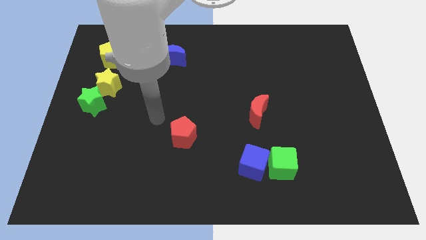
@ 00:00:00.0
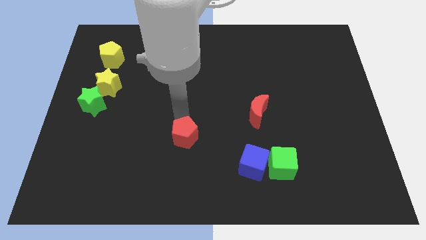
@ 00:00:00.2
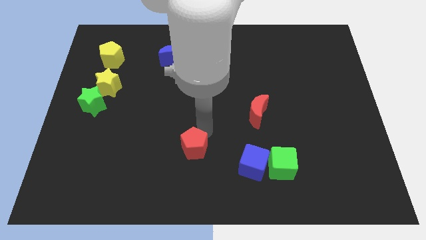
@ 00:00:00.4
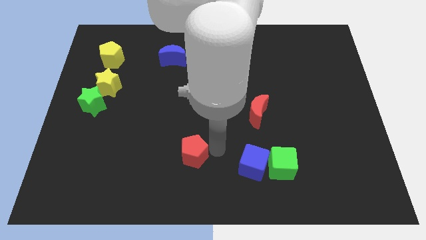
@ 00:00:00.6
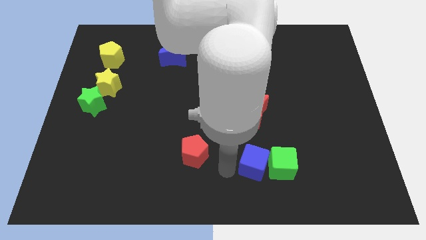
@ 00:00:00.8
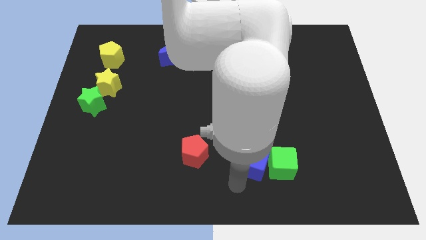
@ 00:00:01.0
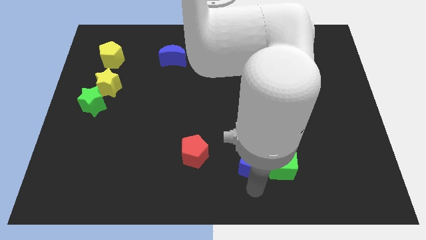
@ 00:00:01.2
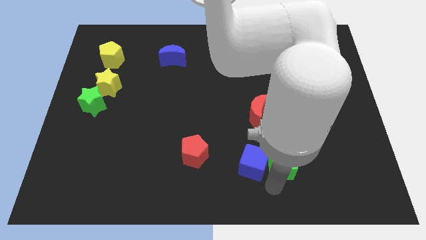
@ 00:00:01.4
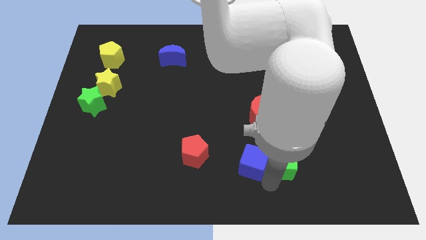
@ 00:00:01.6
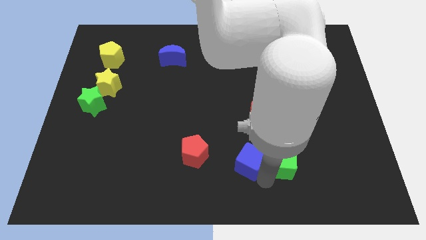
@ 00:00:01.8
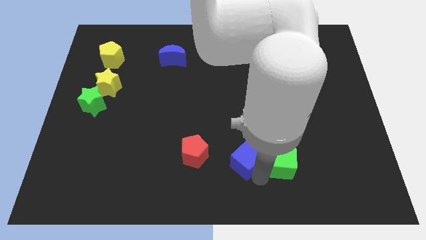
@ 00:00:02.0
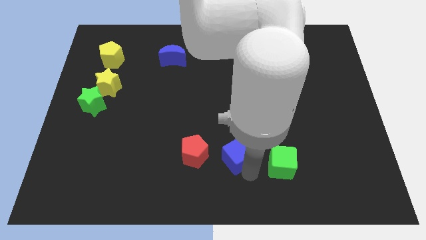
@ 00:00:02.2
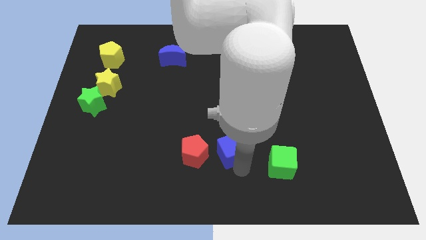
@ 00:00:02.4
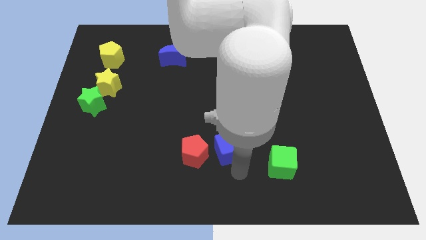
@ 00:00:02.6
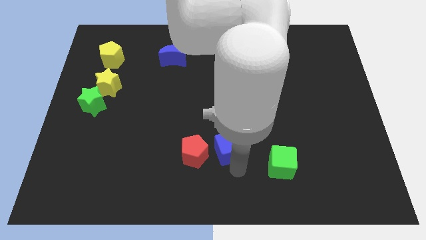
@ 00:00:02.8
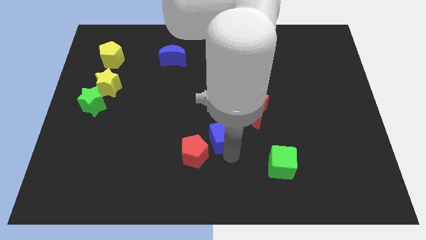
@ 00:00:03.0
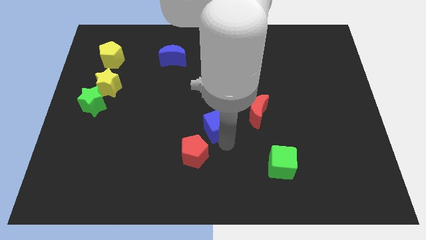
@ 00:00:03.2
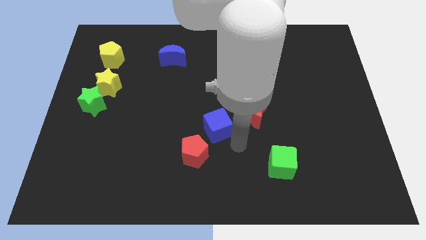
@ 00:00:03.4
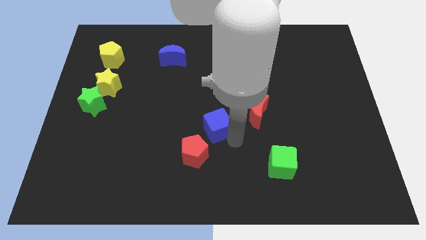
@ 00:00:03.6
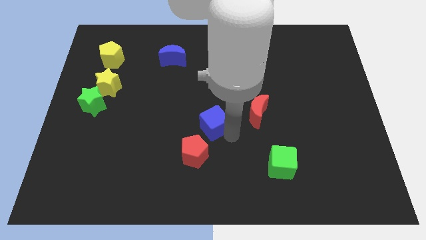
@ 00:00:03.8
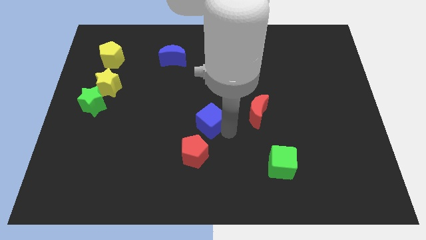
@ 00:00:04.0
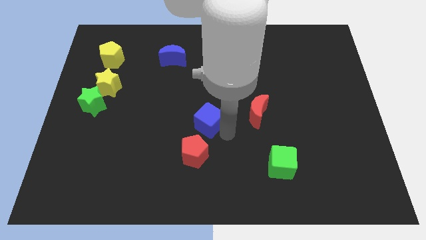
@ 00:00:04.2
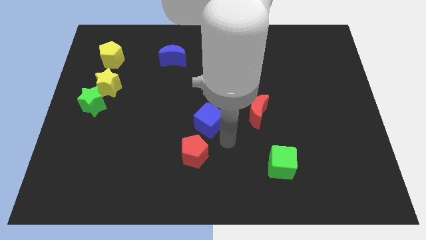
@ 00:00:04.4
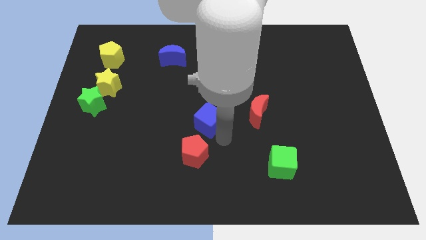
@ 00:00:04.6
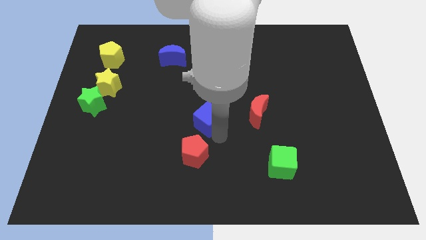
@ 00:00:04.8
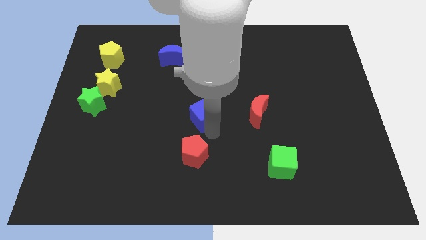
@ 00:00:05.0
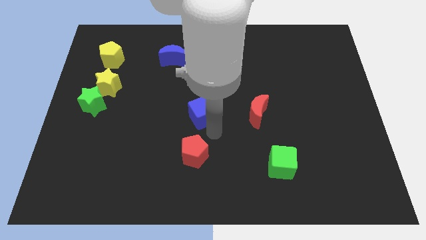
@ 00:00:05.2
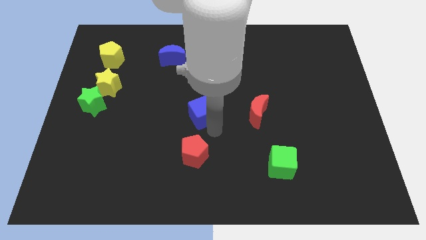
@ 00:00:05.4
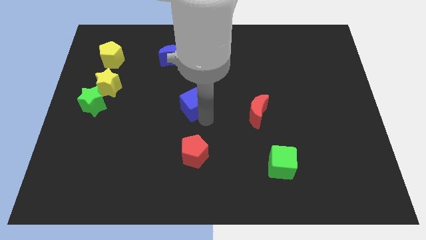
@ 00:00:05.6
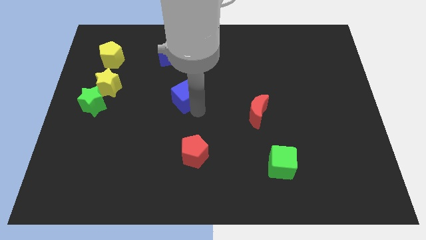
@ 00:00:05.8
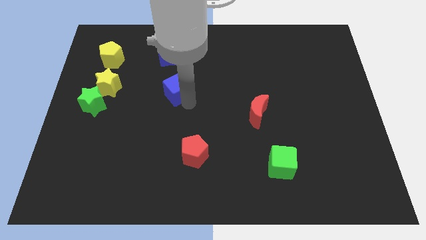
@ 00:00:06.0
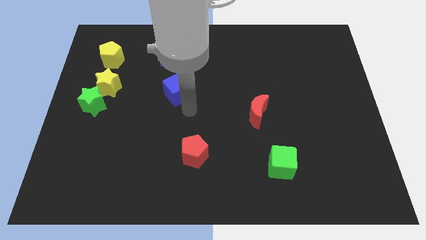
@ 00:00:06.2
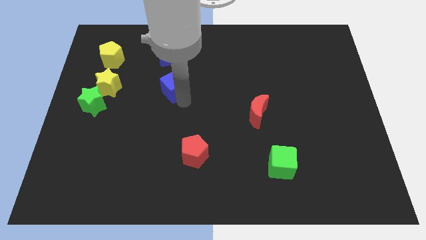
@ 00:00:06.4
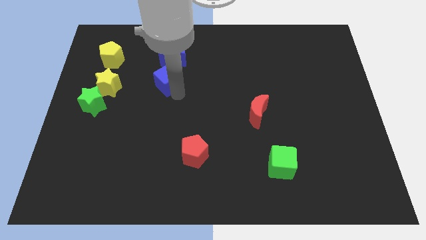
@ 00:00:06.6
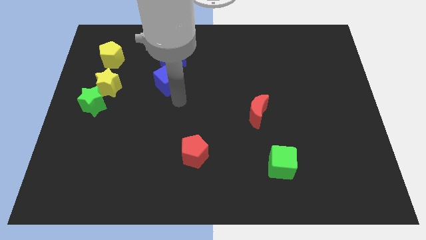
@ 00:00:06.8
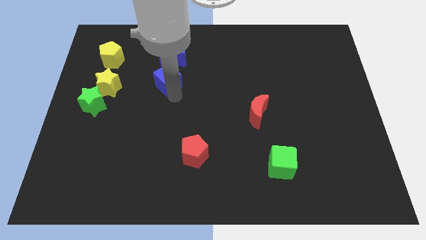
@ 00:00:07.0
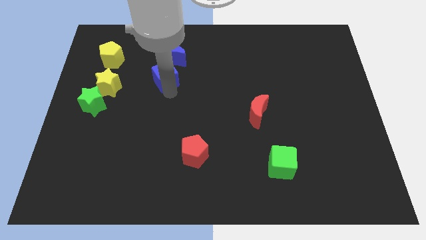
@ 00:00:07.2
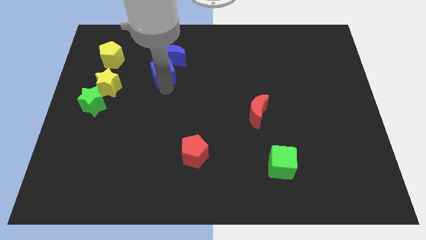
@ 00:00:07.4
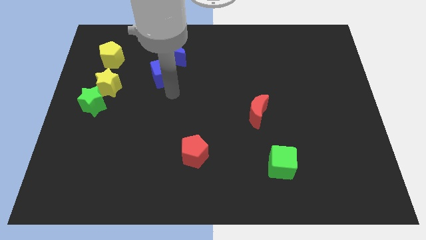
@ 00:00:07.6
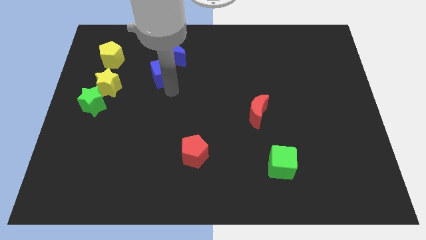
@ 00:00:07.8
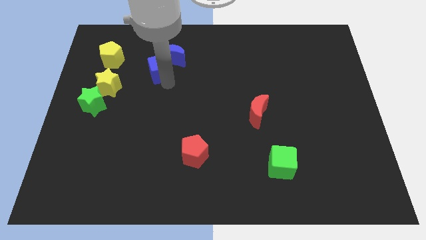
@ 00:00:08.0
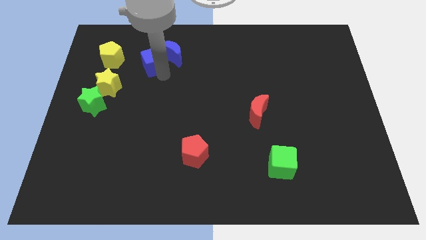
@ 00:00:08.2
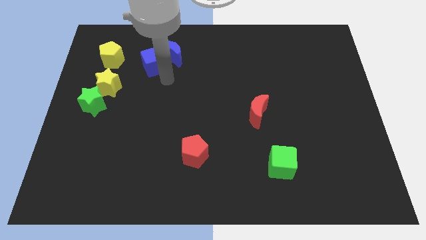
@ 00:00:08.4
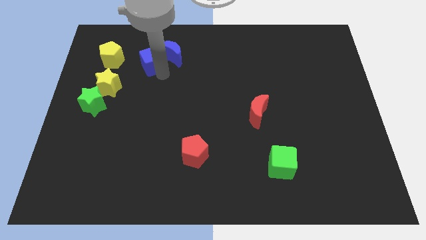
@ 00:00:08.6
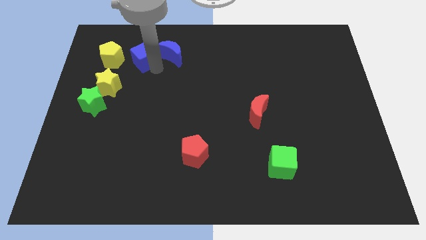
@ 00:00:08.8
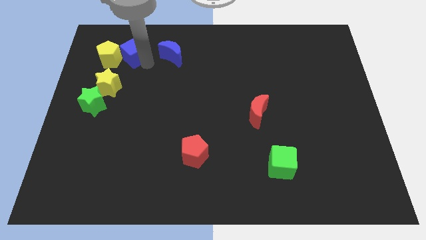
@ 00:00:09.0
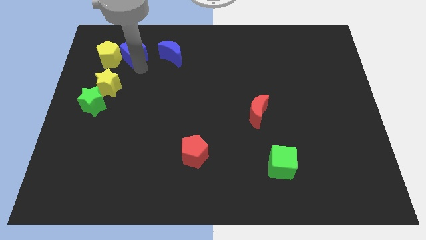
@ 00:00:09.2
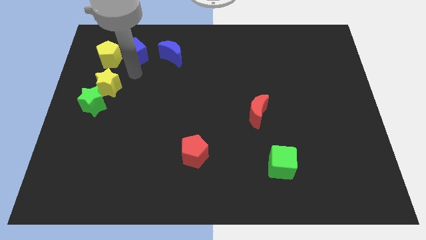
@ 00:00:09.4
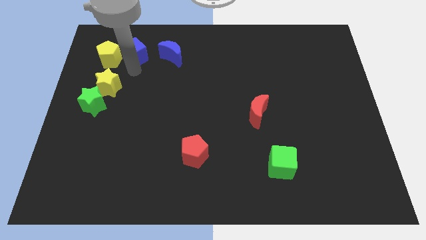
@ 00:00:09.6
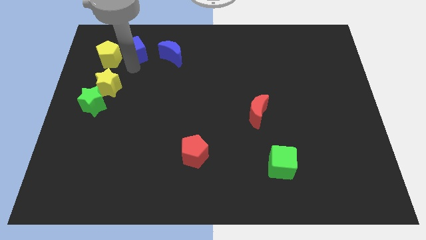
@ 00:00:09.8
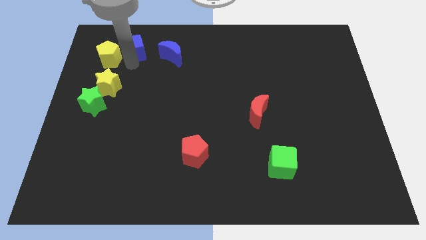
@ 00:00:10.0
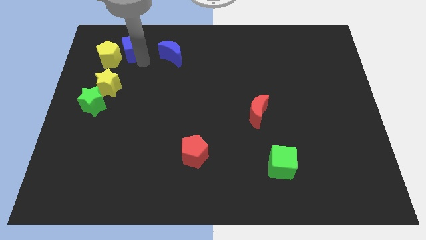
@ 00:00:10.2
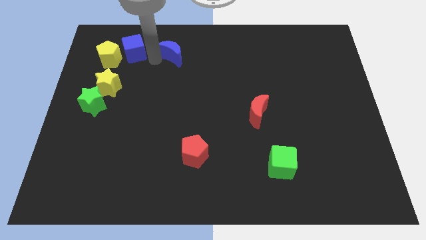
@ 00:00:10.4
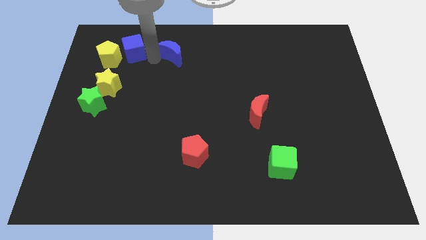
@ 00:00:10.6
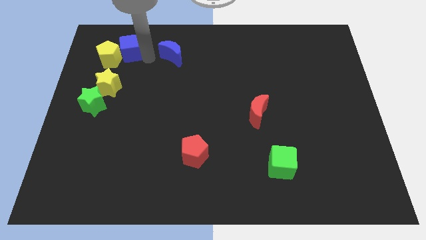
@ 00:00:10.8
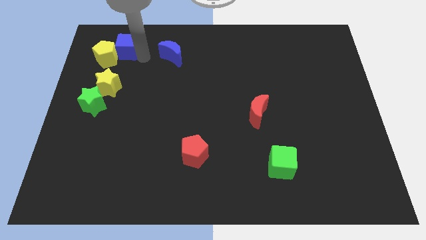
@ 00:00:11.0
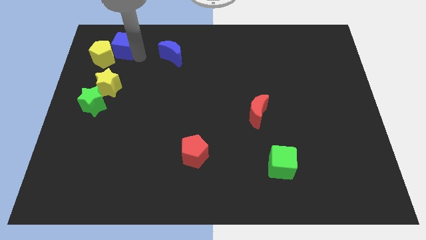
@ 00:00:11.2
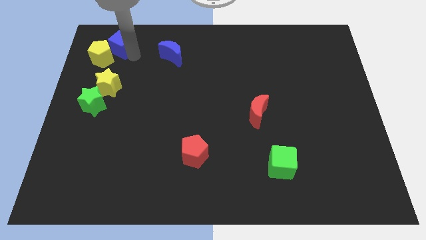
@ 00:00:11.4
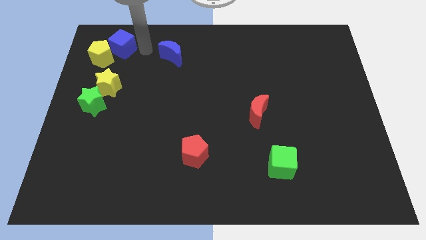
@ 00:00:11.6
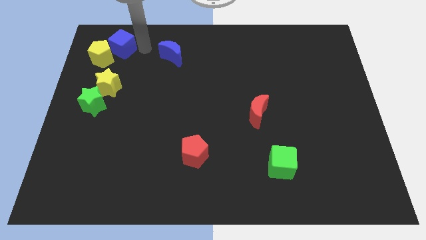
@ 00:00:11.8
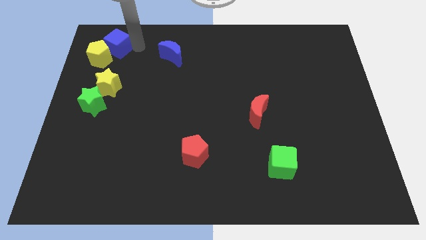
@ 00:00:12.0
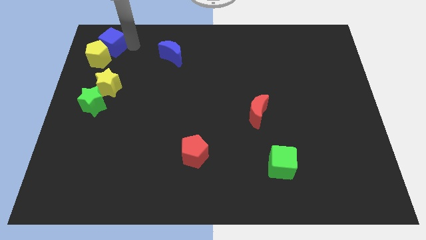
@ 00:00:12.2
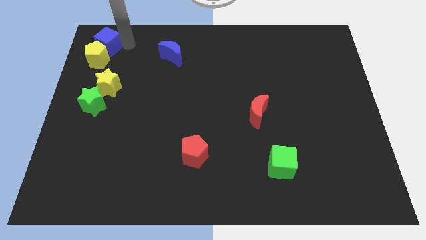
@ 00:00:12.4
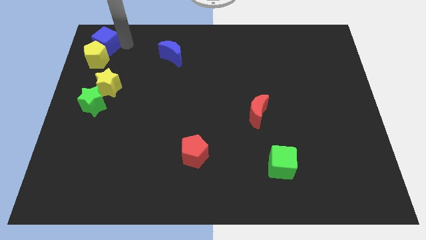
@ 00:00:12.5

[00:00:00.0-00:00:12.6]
slide the blue cube to the top left of the board
